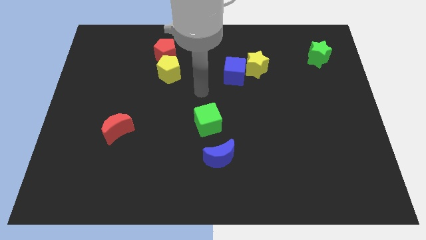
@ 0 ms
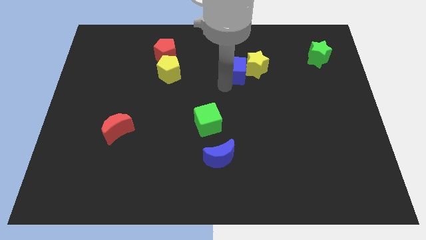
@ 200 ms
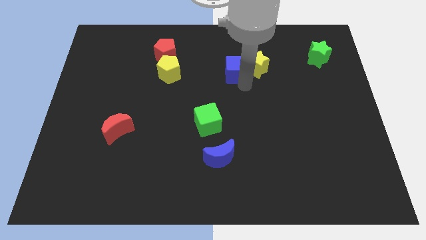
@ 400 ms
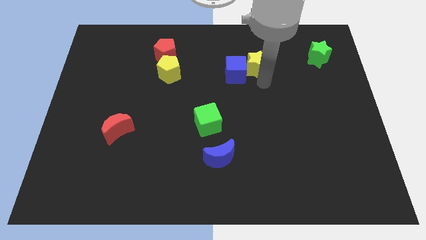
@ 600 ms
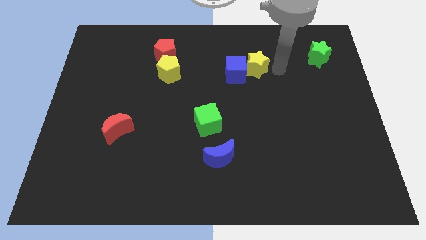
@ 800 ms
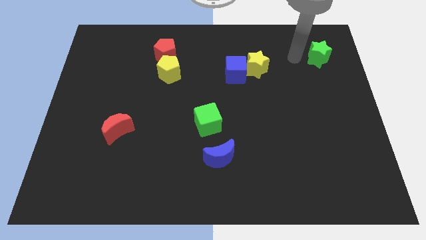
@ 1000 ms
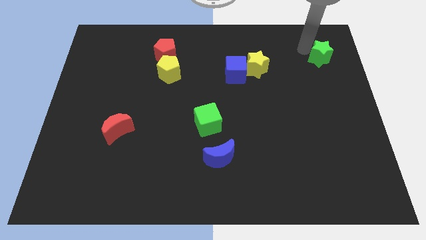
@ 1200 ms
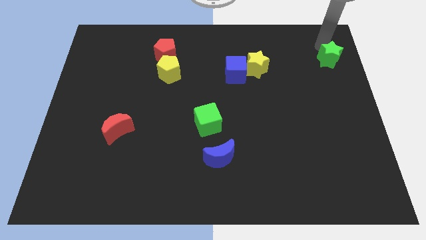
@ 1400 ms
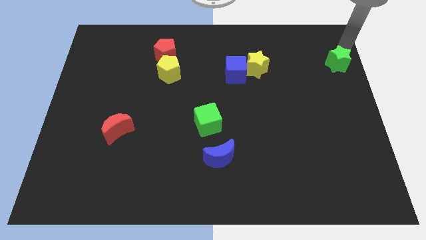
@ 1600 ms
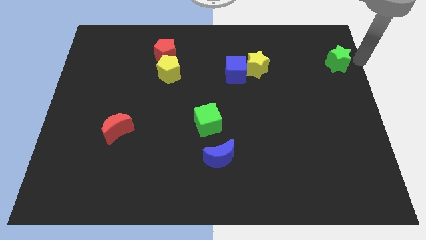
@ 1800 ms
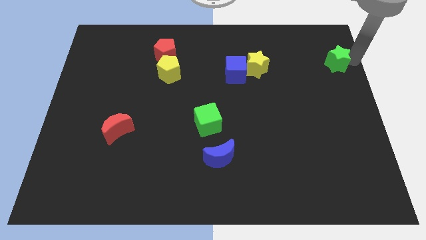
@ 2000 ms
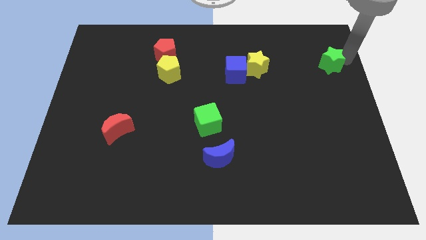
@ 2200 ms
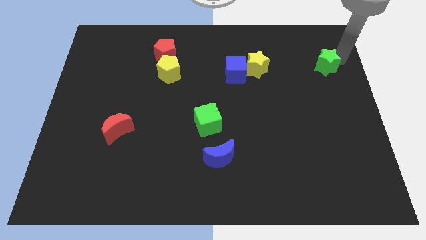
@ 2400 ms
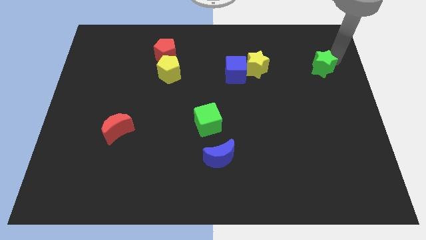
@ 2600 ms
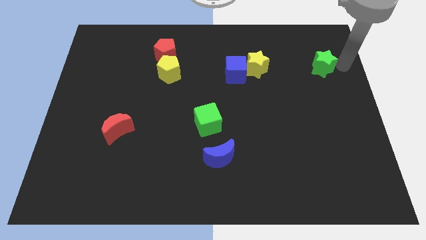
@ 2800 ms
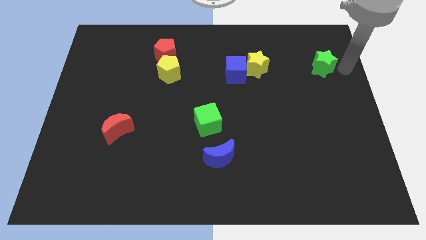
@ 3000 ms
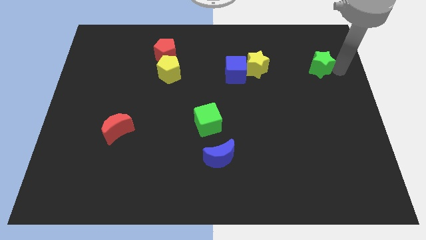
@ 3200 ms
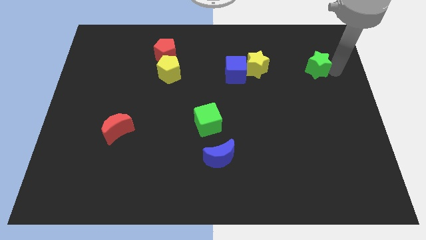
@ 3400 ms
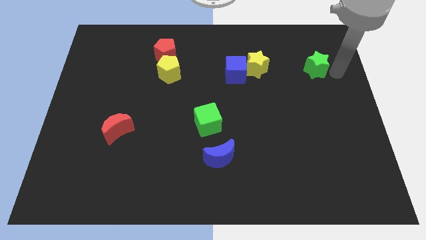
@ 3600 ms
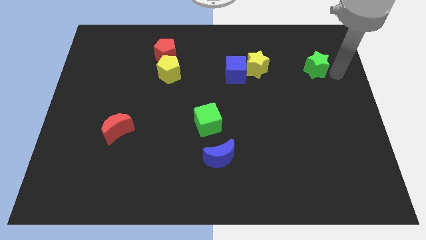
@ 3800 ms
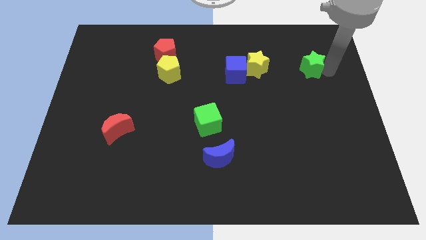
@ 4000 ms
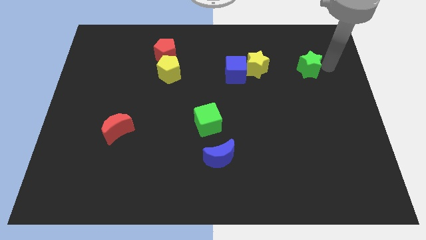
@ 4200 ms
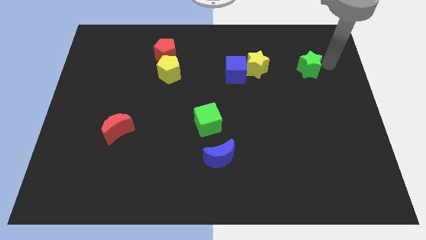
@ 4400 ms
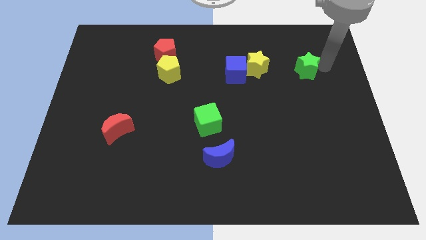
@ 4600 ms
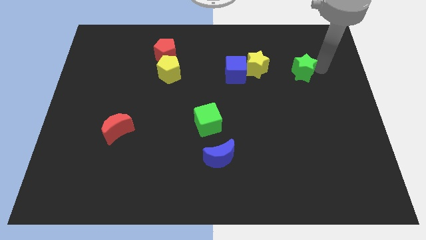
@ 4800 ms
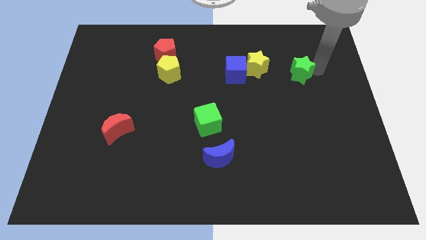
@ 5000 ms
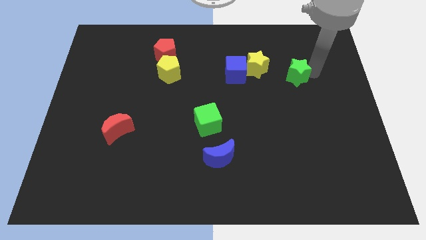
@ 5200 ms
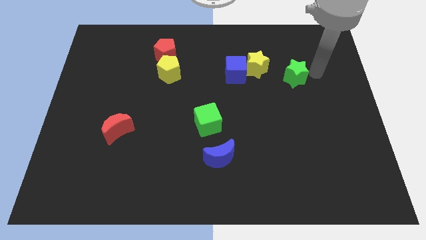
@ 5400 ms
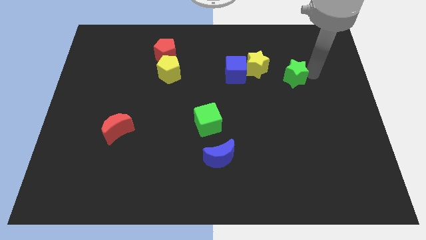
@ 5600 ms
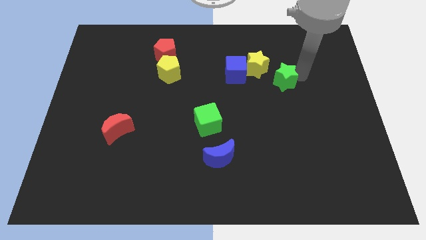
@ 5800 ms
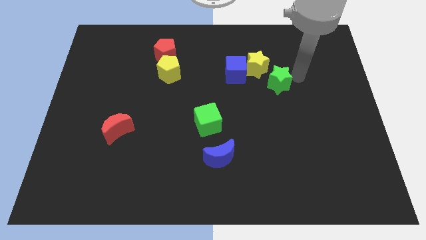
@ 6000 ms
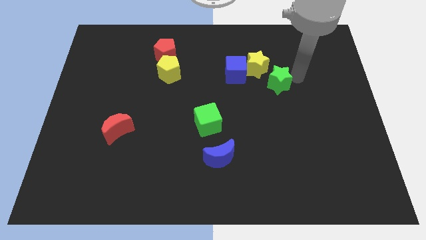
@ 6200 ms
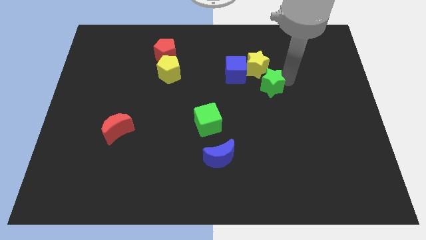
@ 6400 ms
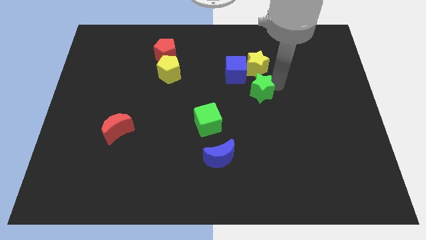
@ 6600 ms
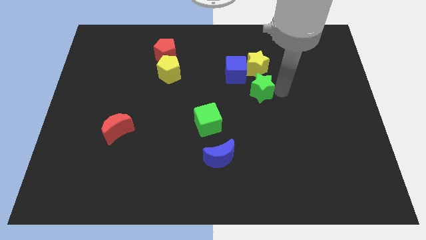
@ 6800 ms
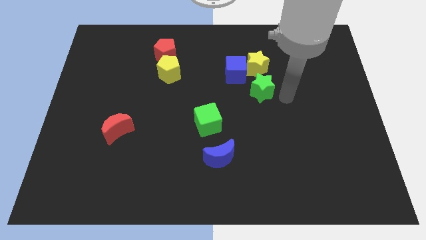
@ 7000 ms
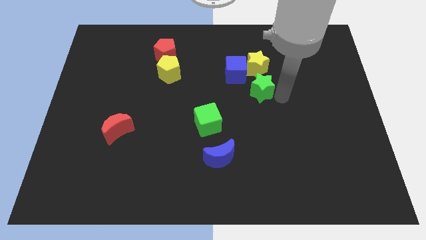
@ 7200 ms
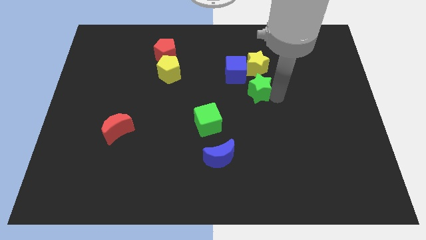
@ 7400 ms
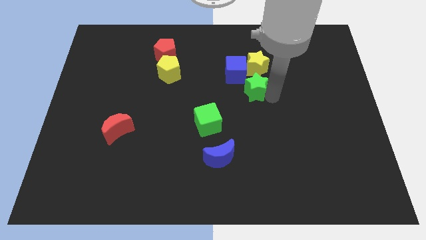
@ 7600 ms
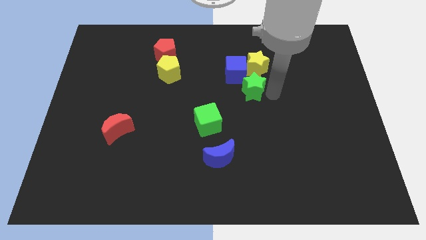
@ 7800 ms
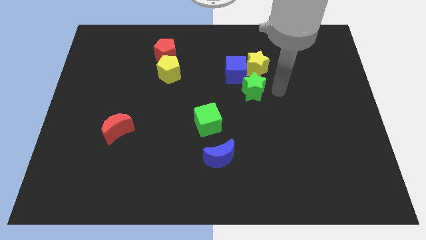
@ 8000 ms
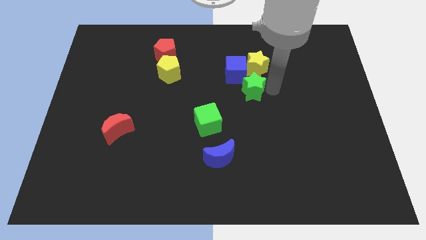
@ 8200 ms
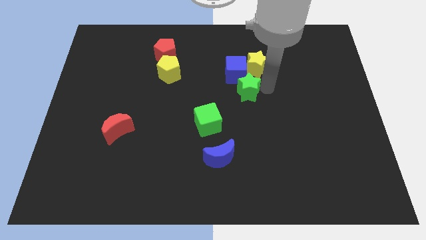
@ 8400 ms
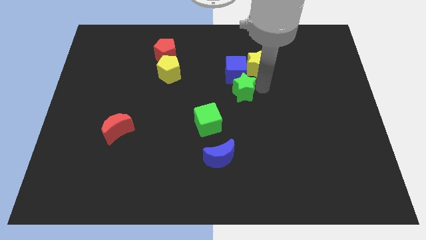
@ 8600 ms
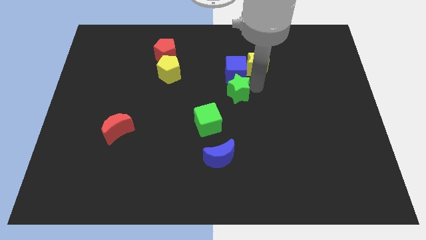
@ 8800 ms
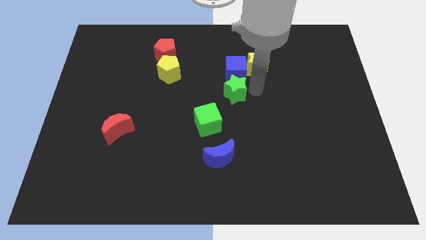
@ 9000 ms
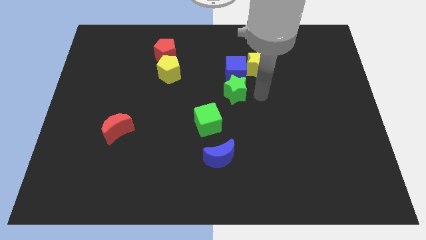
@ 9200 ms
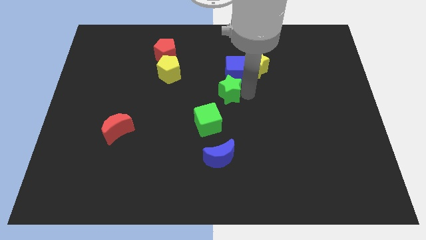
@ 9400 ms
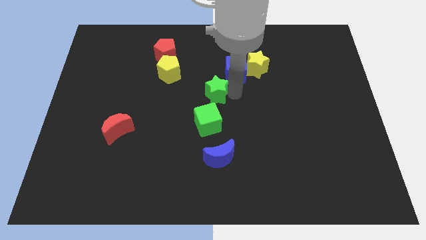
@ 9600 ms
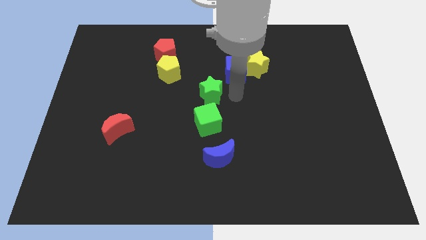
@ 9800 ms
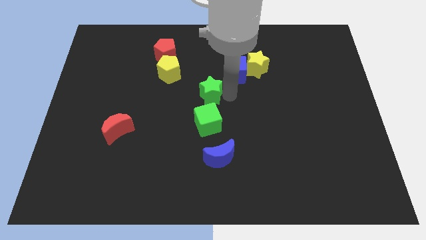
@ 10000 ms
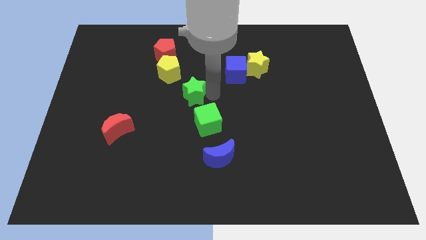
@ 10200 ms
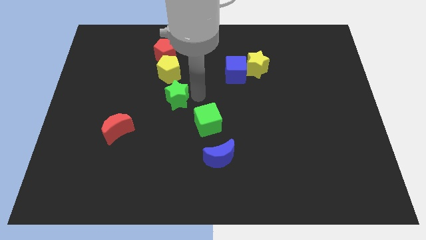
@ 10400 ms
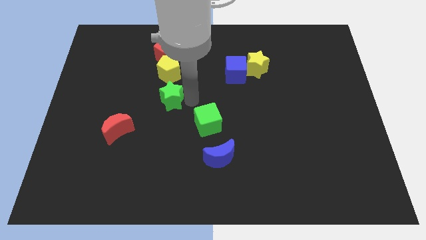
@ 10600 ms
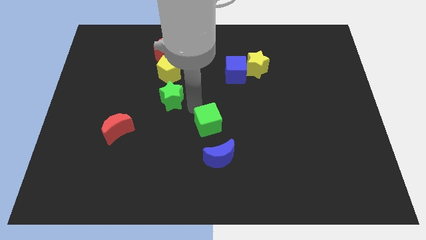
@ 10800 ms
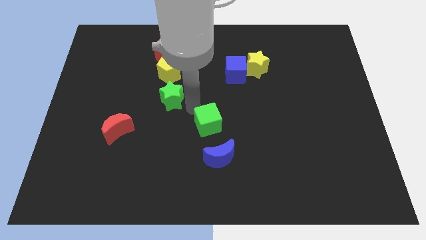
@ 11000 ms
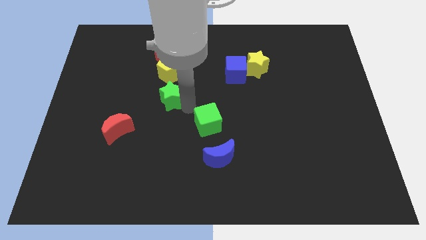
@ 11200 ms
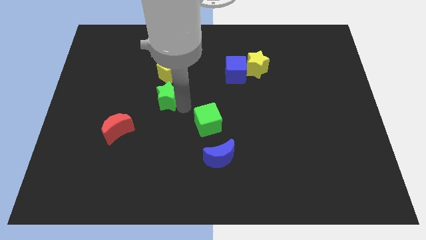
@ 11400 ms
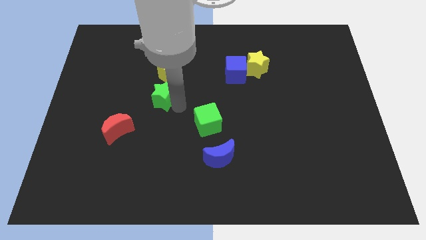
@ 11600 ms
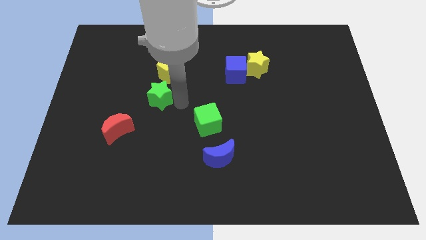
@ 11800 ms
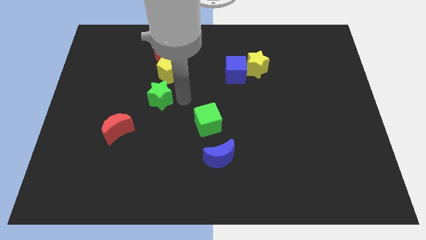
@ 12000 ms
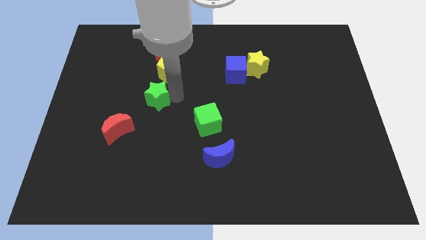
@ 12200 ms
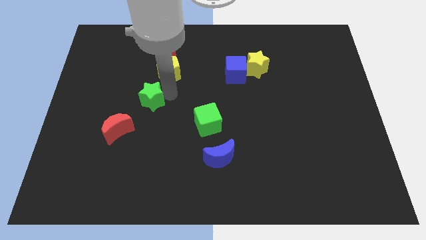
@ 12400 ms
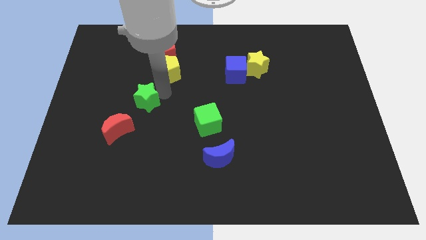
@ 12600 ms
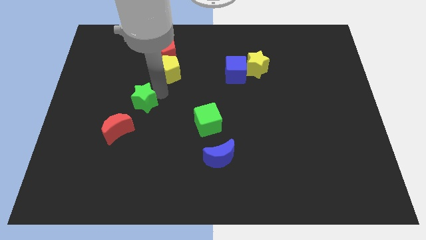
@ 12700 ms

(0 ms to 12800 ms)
put the green star above the red moon

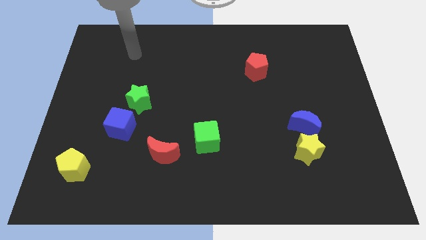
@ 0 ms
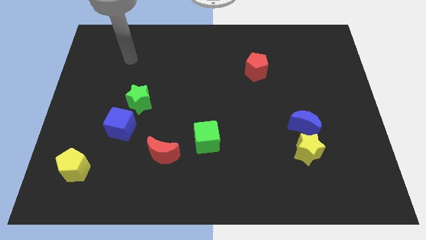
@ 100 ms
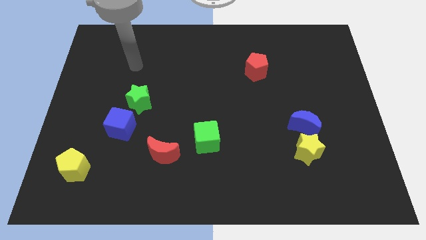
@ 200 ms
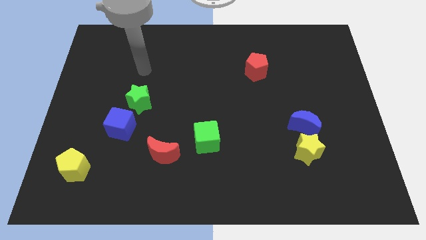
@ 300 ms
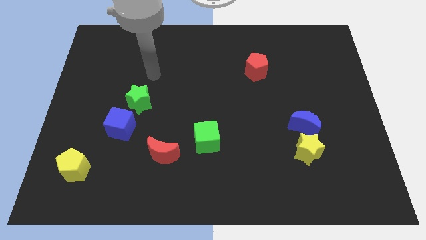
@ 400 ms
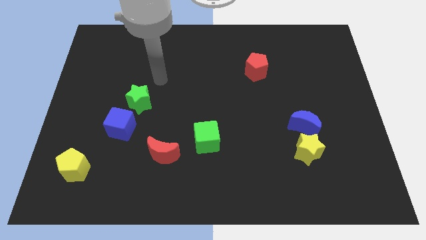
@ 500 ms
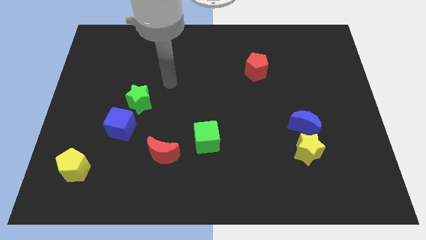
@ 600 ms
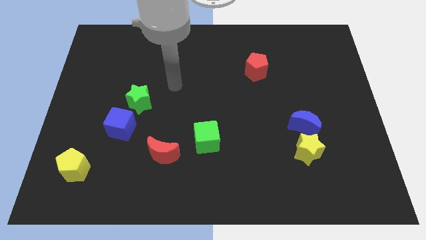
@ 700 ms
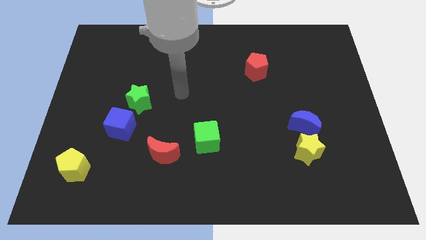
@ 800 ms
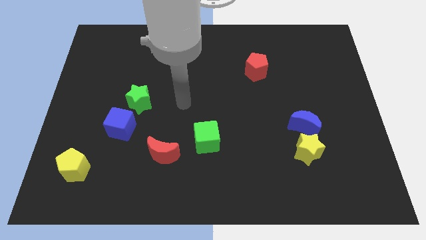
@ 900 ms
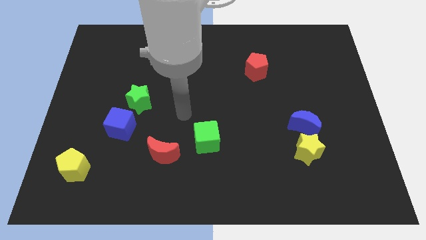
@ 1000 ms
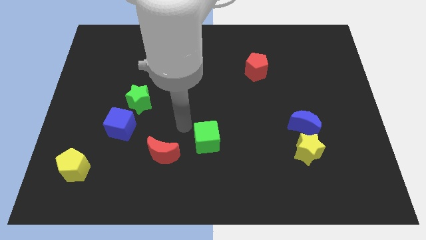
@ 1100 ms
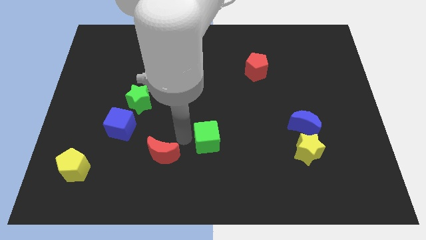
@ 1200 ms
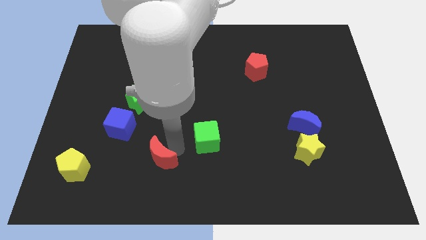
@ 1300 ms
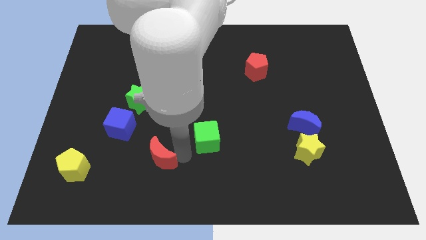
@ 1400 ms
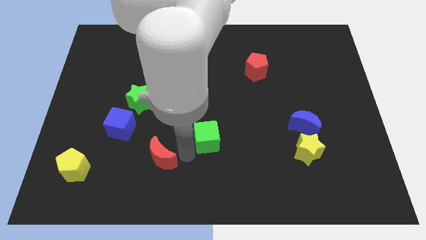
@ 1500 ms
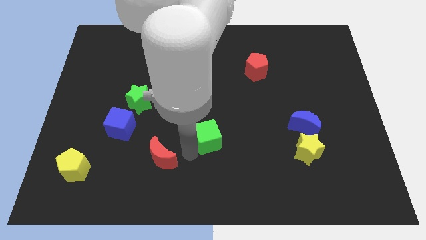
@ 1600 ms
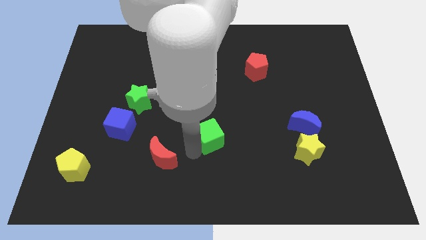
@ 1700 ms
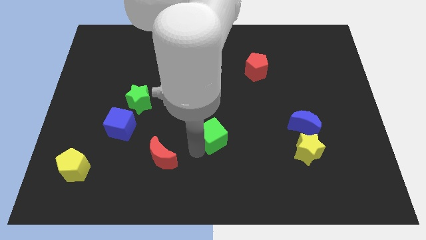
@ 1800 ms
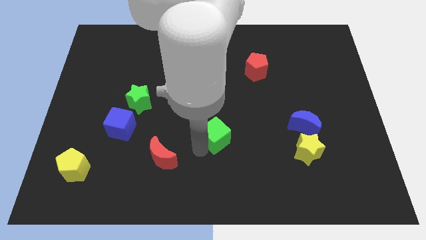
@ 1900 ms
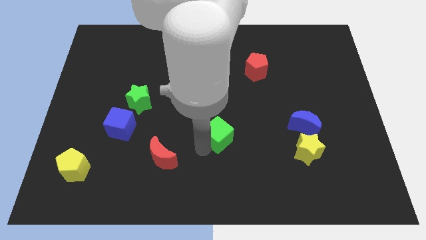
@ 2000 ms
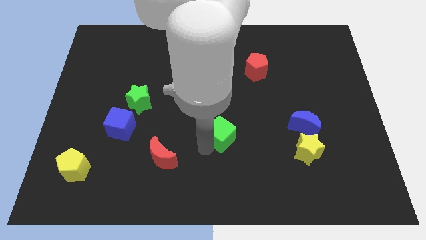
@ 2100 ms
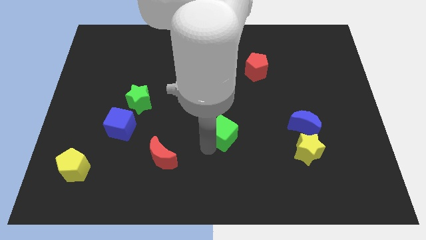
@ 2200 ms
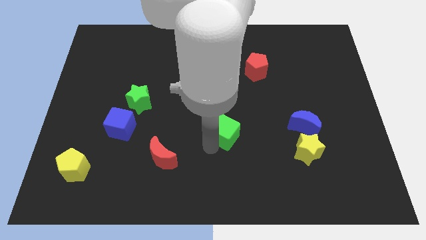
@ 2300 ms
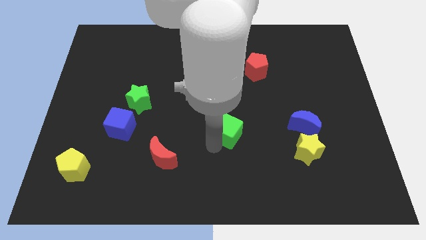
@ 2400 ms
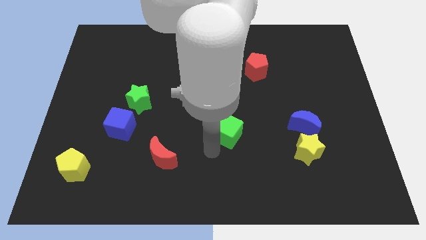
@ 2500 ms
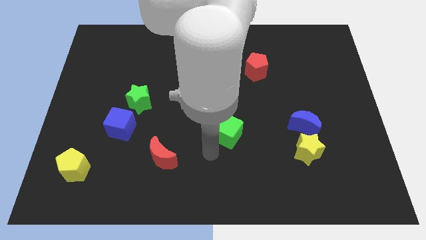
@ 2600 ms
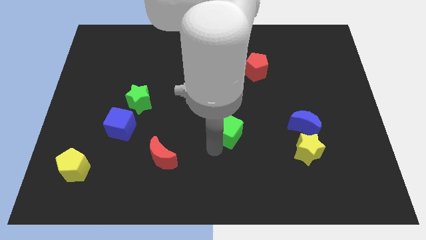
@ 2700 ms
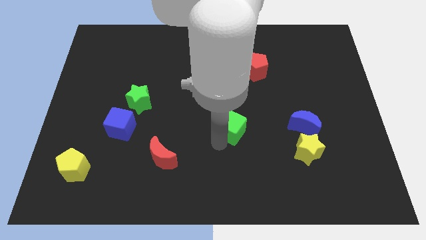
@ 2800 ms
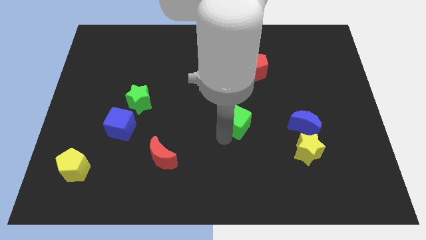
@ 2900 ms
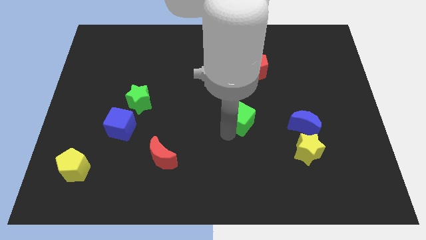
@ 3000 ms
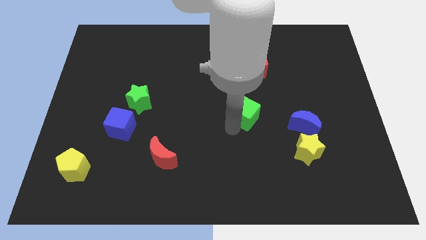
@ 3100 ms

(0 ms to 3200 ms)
slide the green cube below the red pentagon
